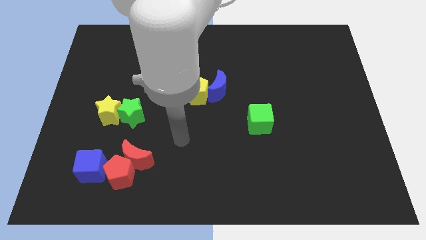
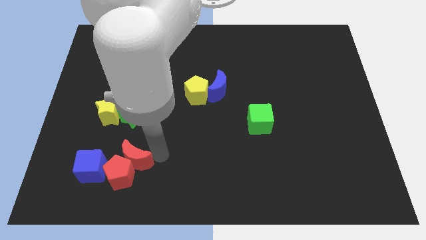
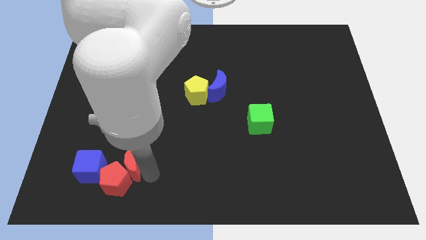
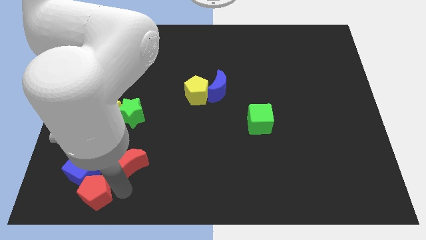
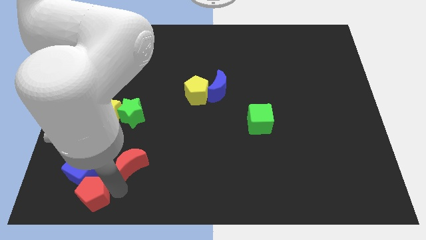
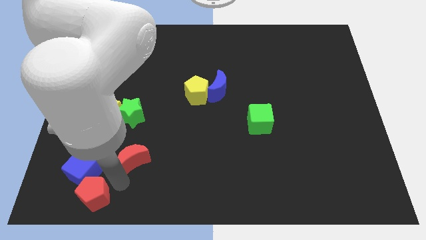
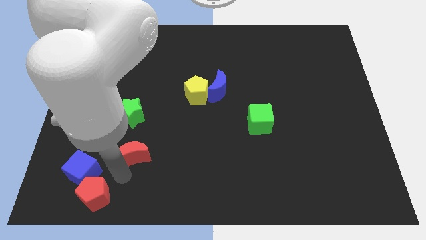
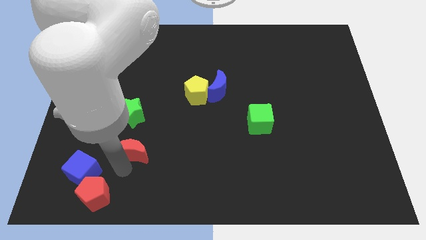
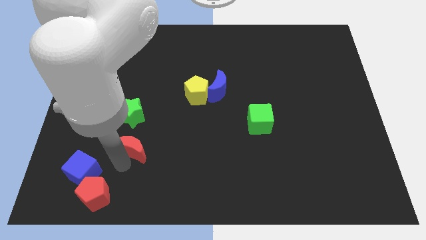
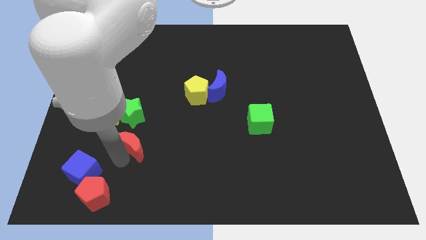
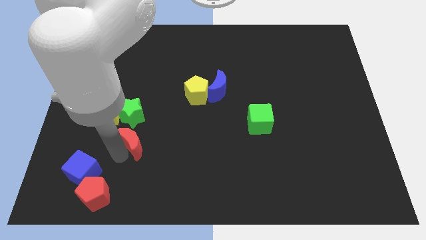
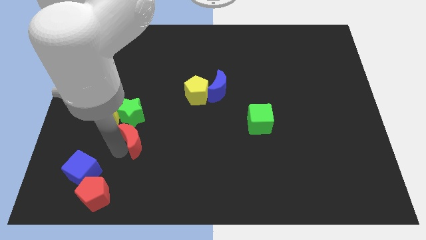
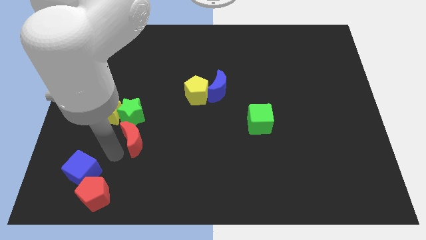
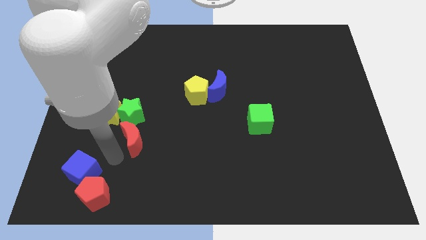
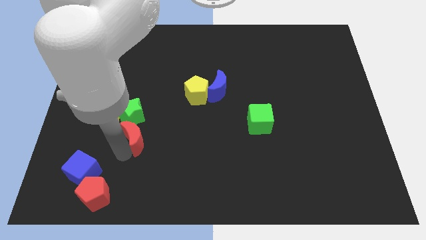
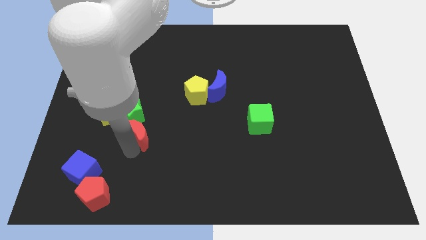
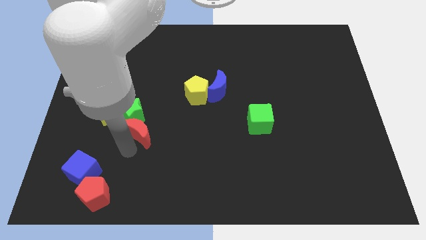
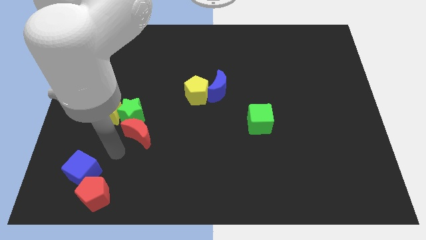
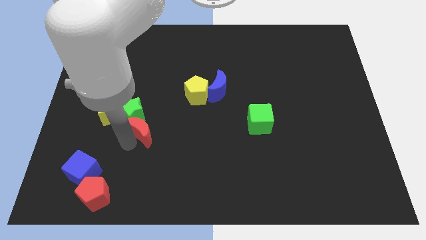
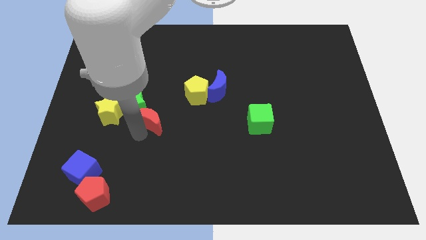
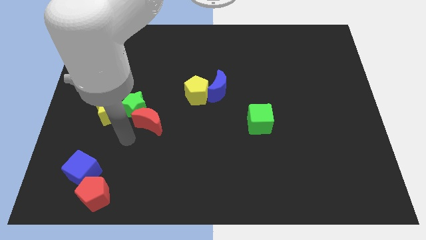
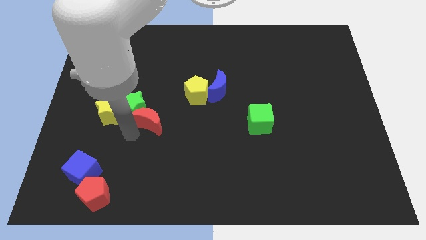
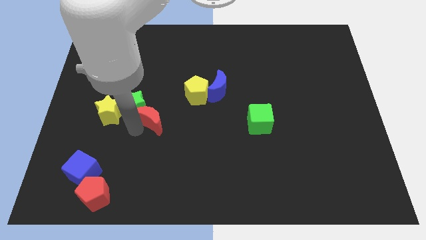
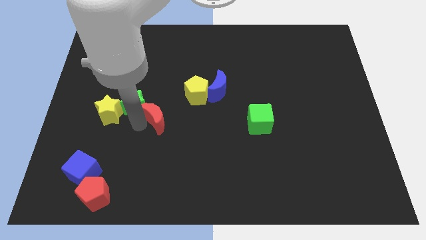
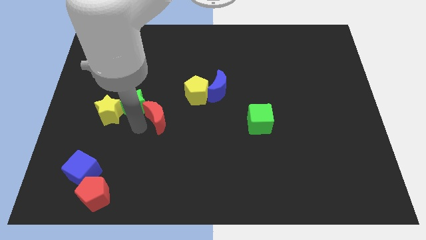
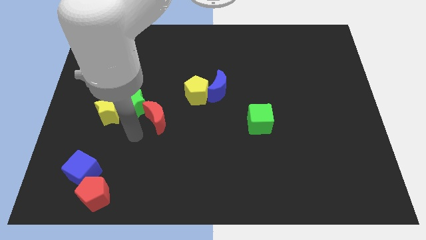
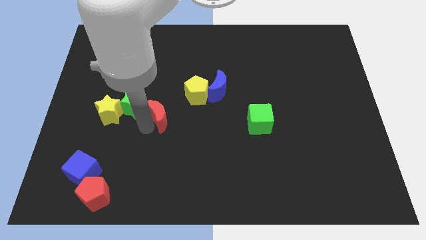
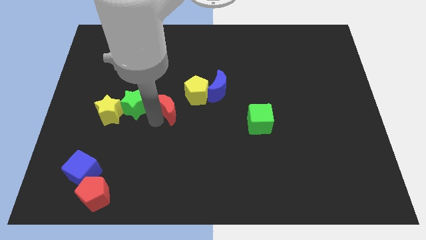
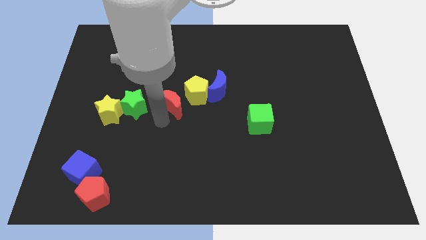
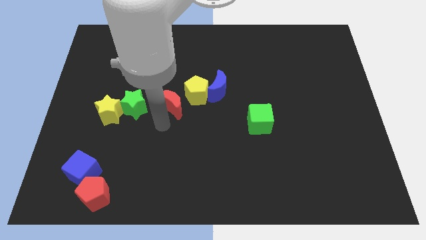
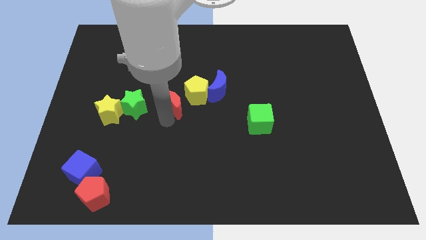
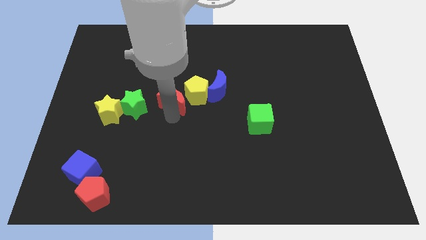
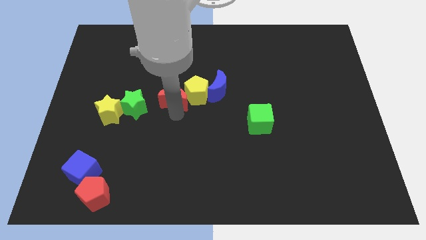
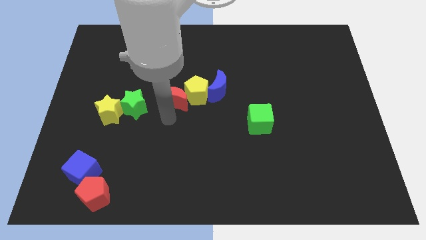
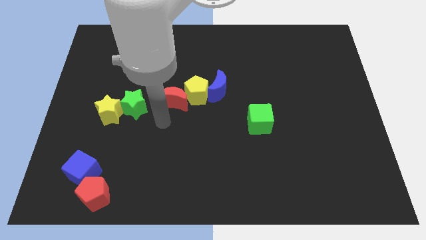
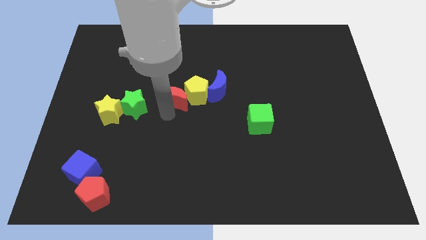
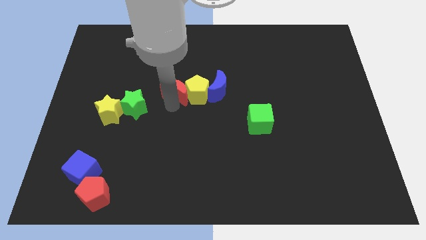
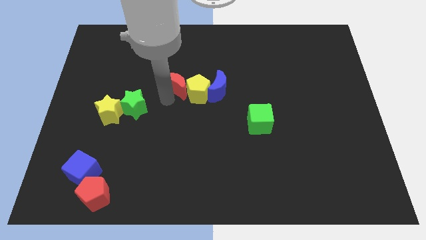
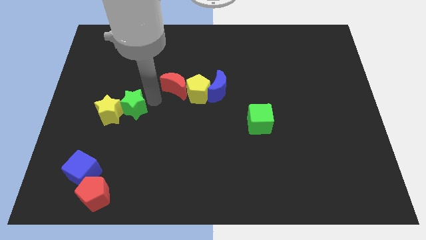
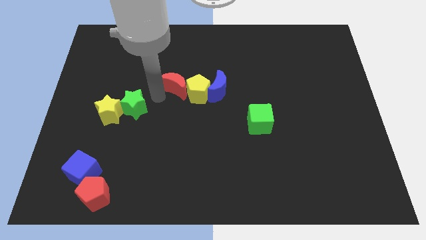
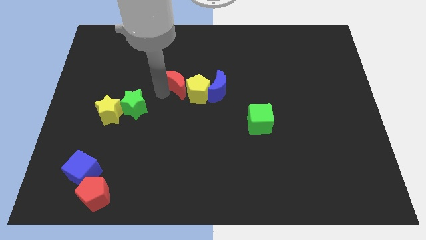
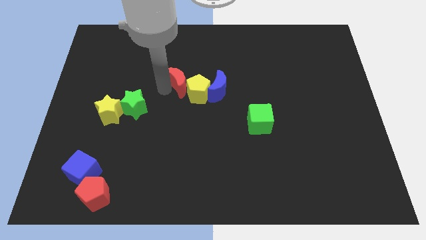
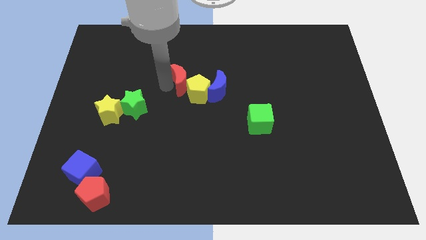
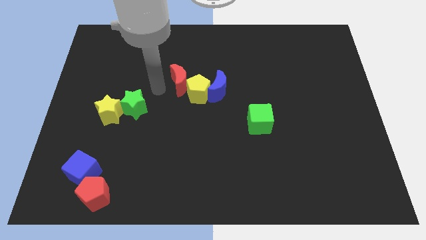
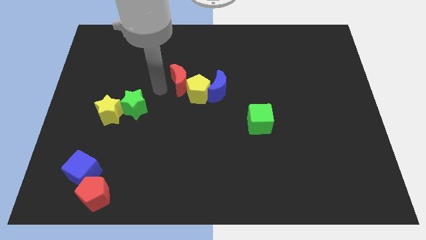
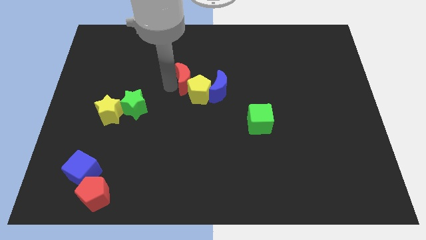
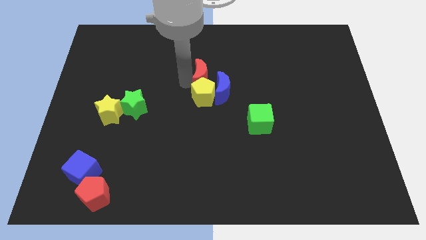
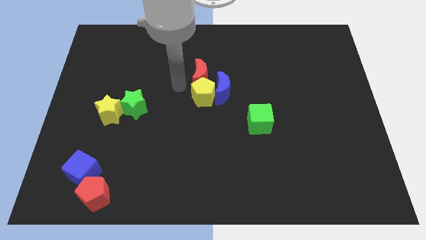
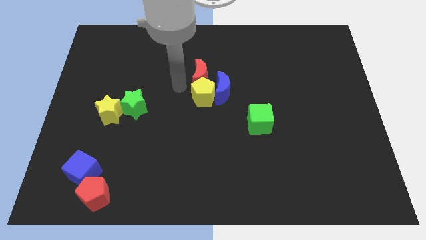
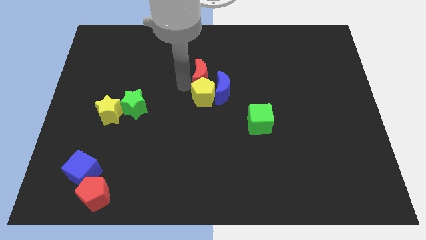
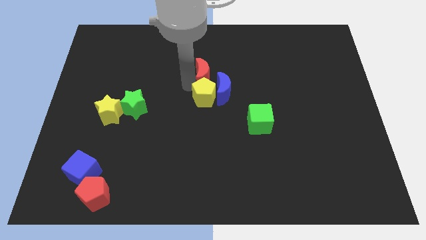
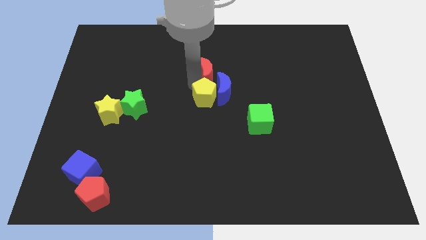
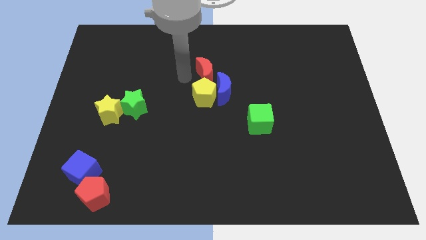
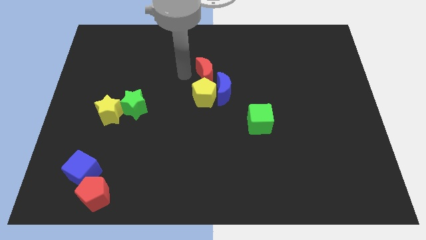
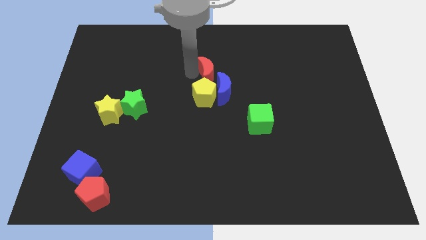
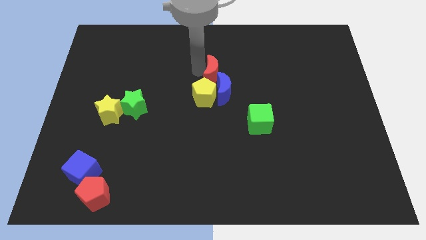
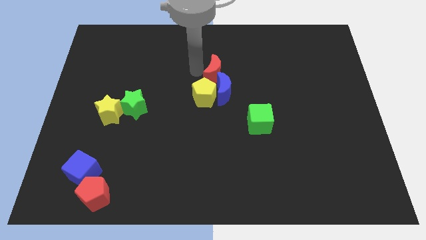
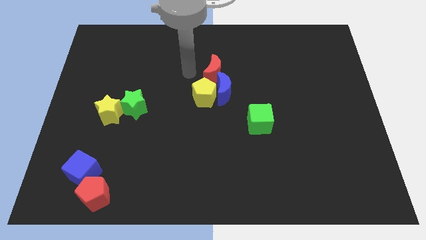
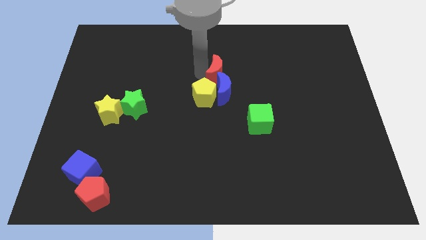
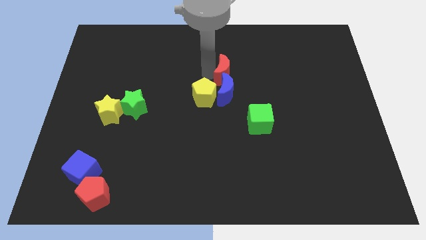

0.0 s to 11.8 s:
slide the red moon to the top right of the blue moon
